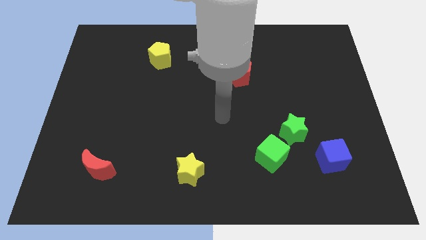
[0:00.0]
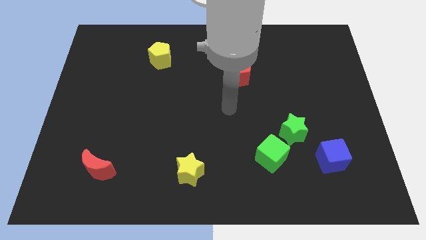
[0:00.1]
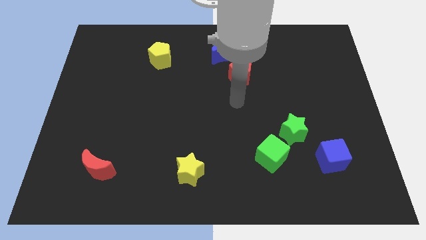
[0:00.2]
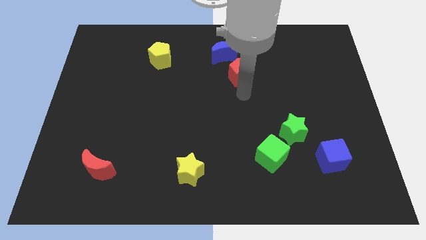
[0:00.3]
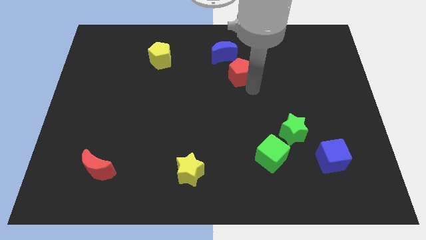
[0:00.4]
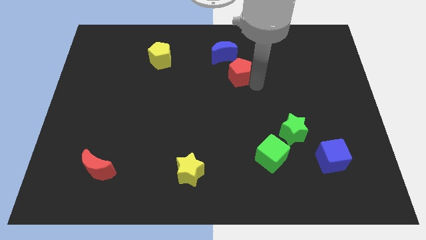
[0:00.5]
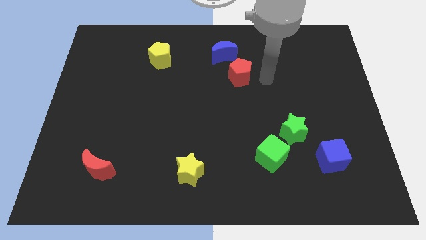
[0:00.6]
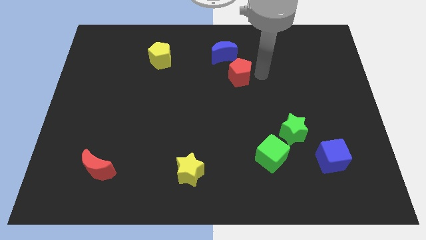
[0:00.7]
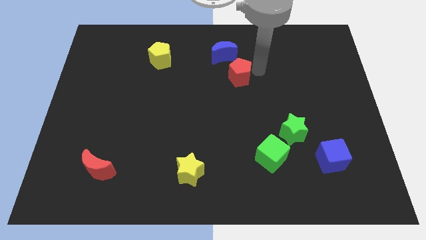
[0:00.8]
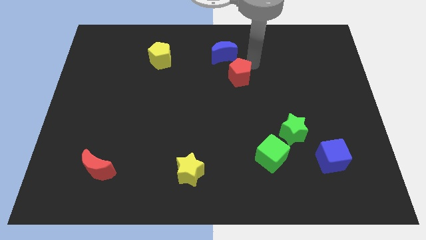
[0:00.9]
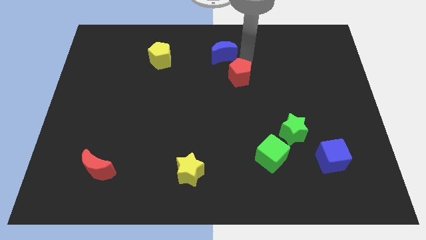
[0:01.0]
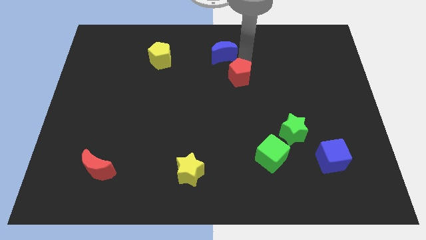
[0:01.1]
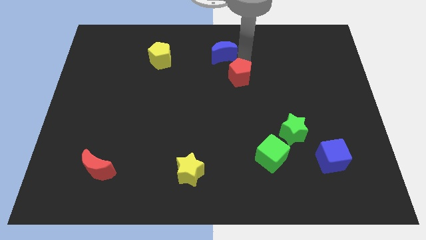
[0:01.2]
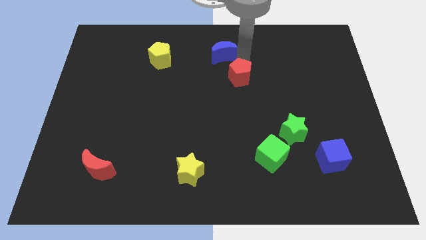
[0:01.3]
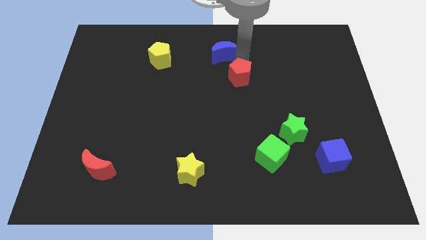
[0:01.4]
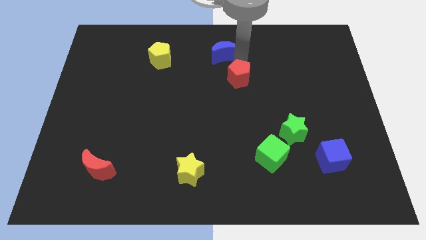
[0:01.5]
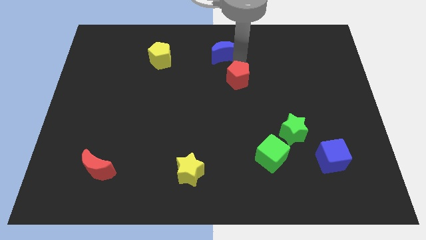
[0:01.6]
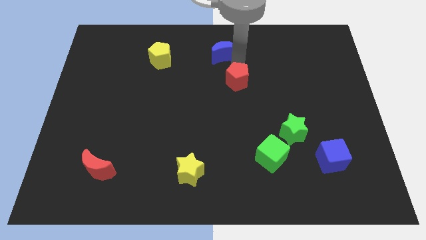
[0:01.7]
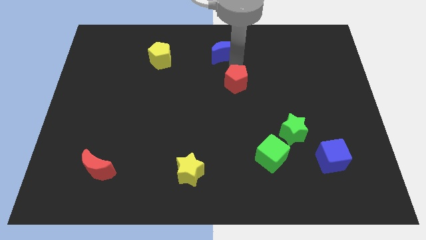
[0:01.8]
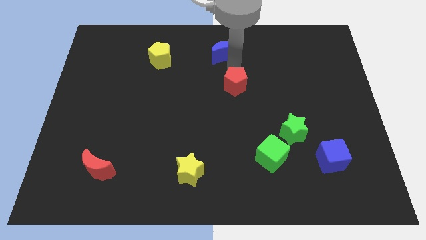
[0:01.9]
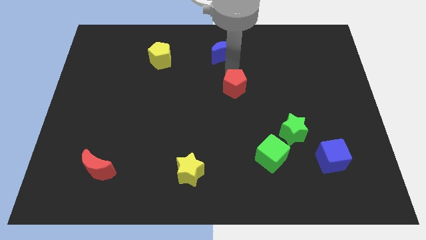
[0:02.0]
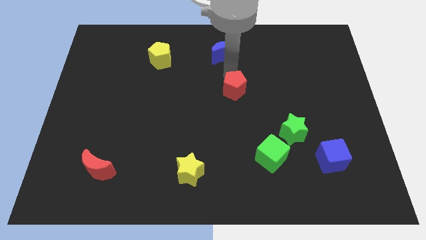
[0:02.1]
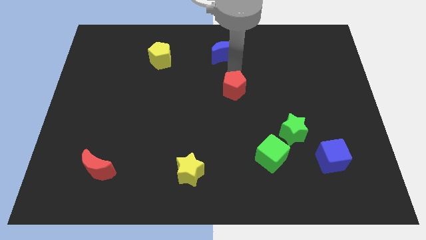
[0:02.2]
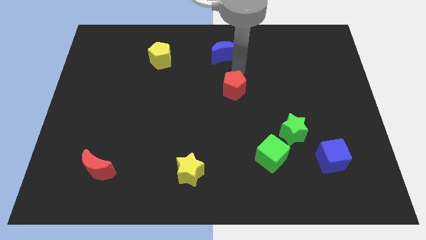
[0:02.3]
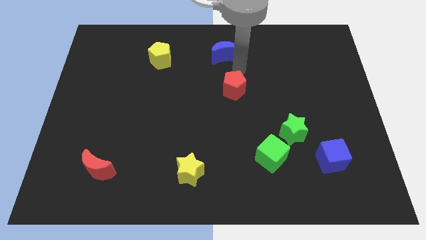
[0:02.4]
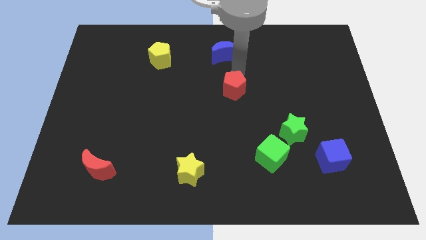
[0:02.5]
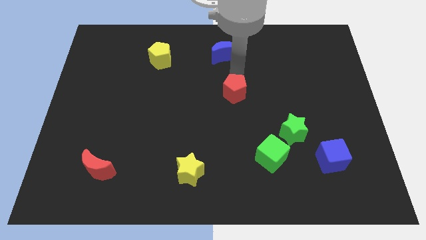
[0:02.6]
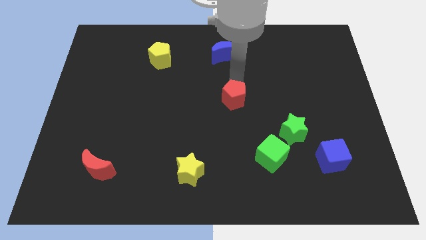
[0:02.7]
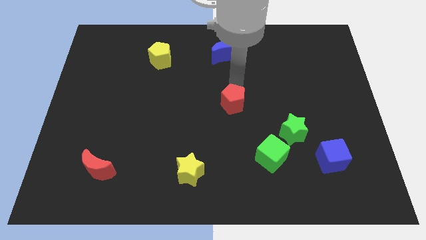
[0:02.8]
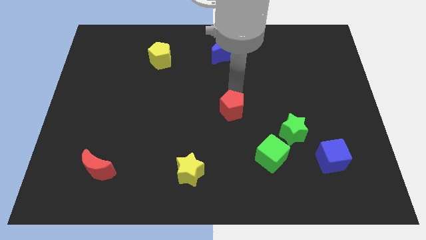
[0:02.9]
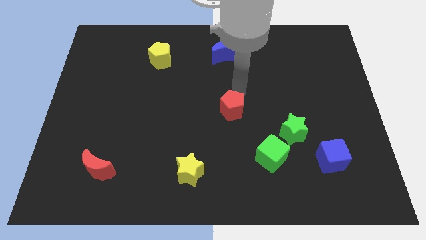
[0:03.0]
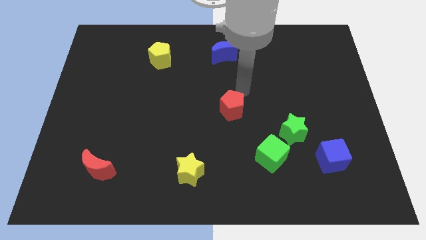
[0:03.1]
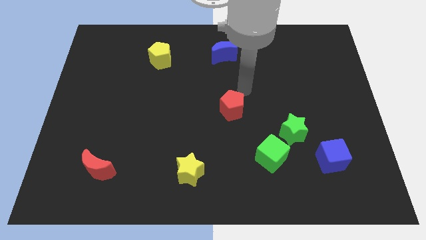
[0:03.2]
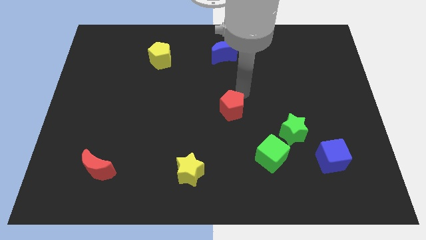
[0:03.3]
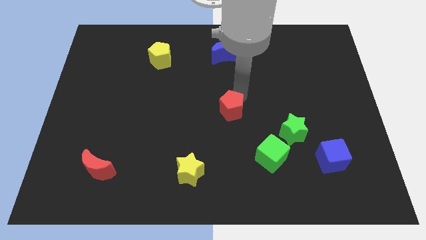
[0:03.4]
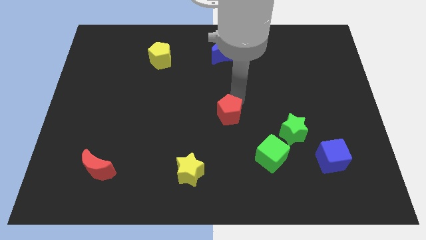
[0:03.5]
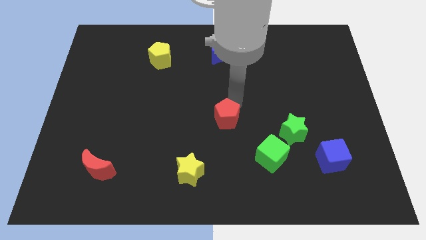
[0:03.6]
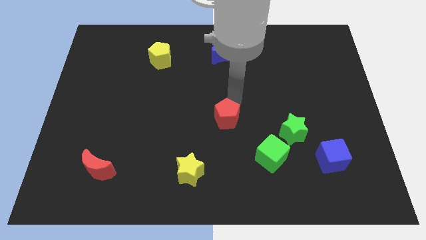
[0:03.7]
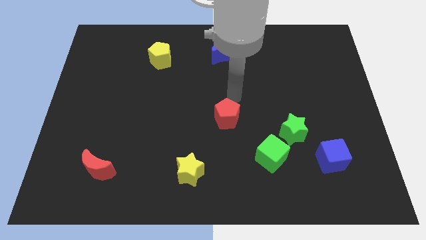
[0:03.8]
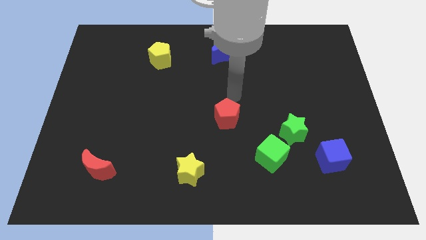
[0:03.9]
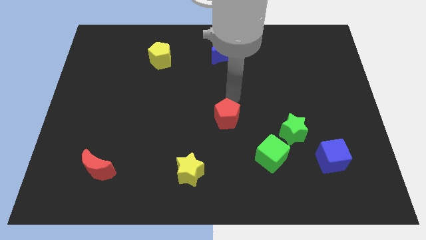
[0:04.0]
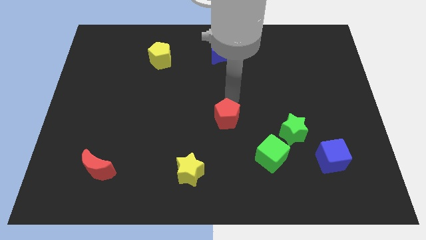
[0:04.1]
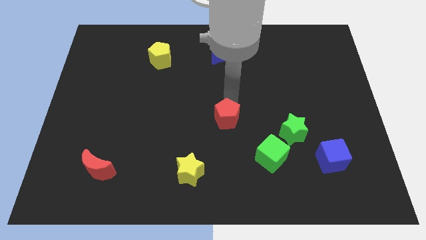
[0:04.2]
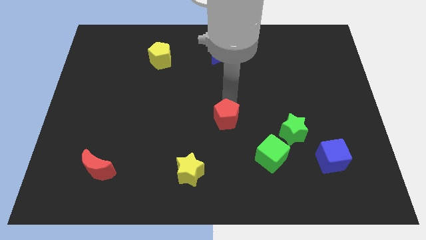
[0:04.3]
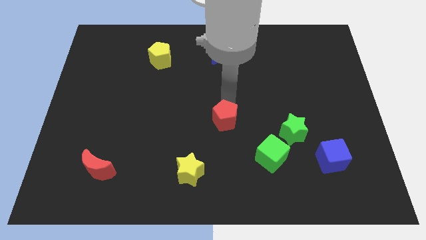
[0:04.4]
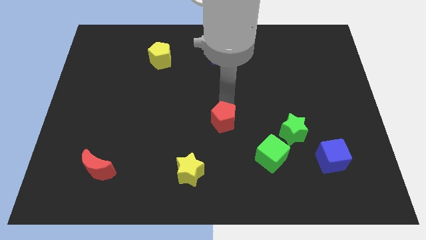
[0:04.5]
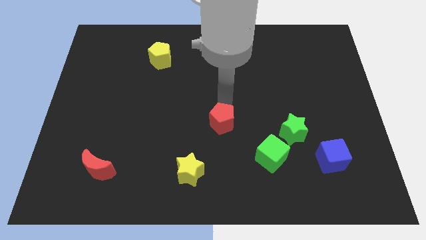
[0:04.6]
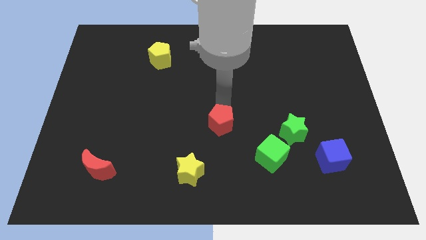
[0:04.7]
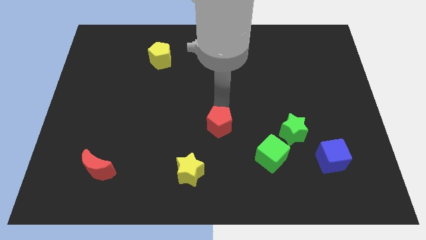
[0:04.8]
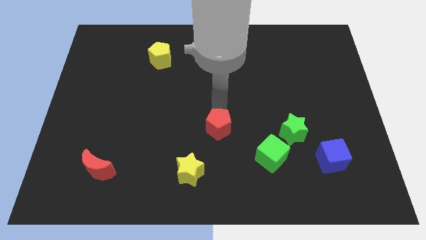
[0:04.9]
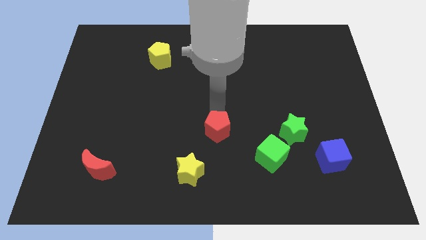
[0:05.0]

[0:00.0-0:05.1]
move the red pentagon diagonally up and to the right of the yellow star

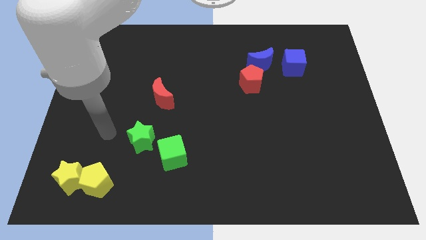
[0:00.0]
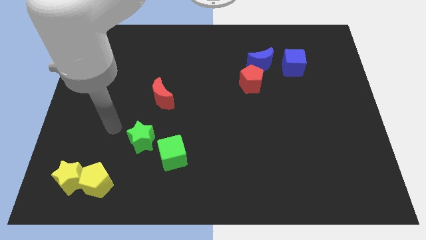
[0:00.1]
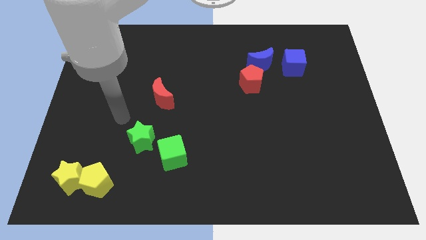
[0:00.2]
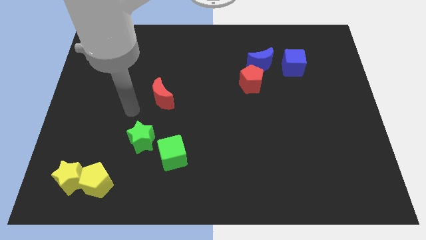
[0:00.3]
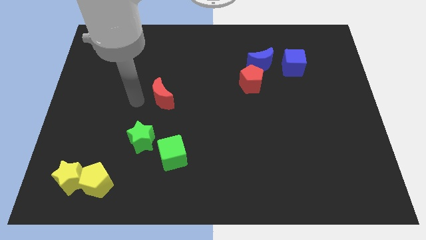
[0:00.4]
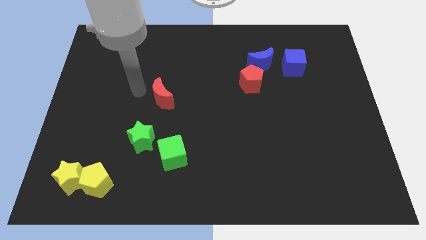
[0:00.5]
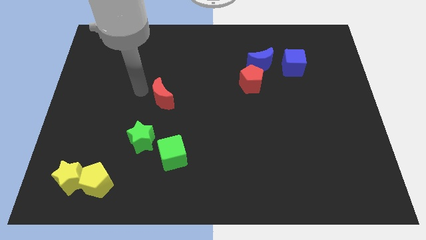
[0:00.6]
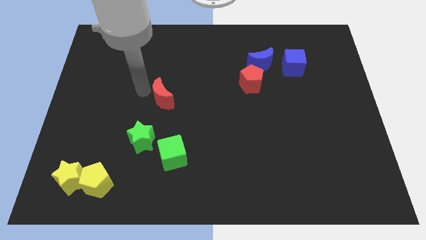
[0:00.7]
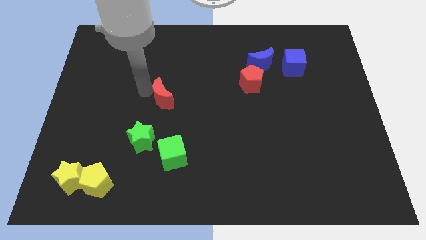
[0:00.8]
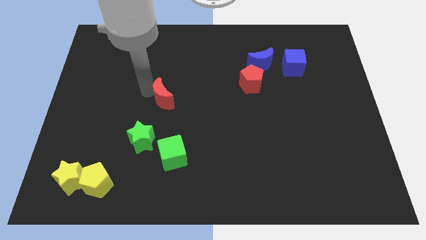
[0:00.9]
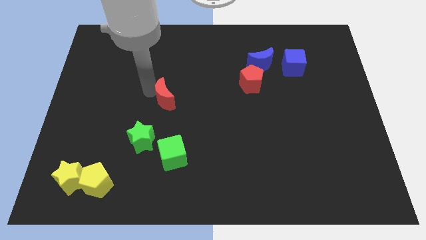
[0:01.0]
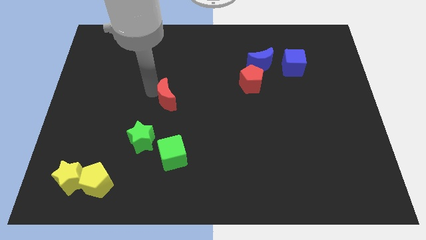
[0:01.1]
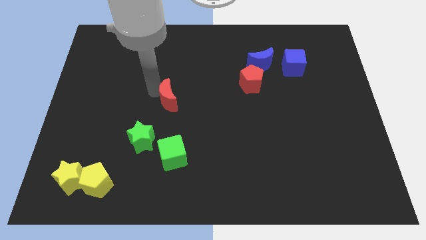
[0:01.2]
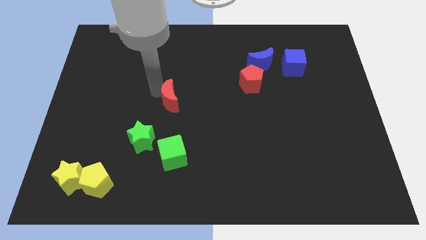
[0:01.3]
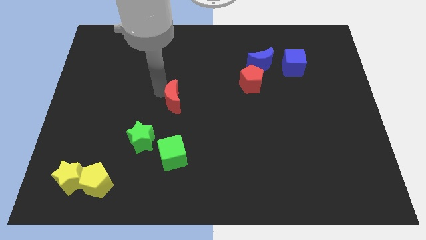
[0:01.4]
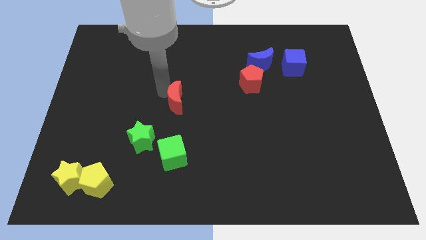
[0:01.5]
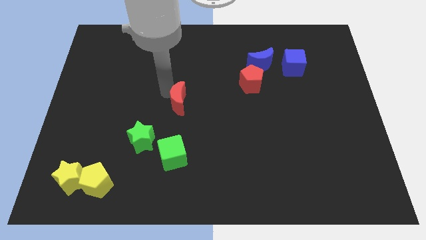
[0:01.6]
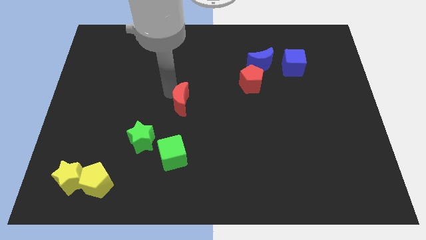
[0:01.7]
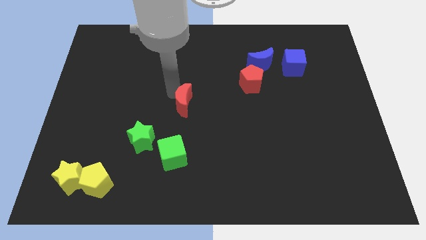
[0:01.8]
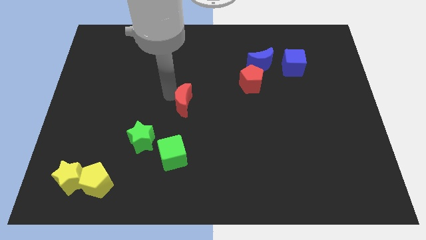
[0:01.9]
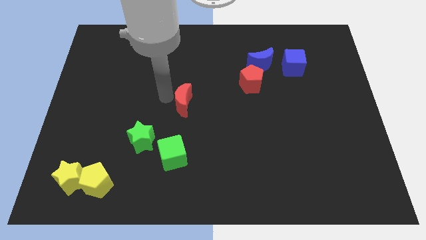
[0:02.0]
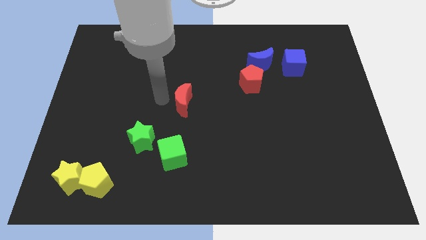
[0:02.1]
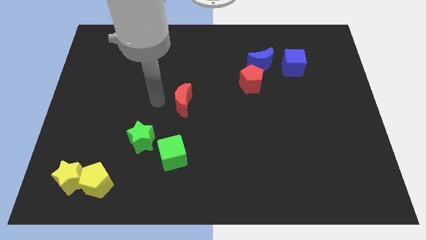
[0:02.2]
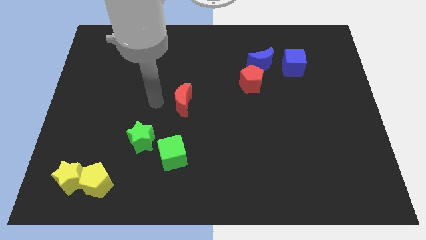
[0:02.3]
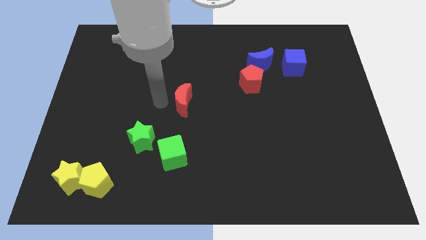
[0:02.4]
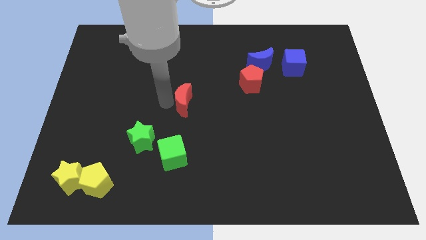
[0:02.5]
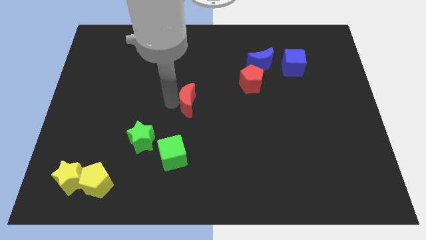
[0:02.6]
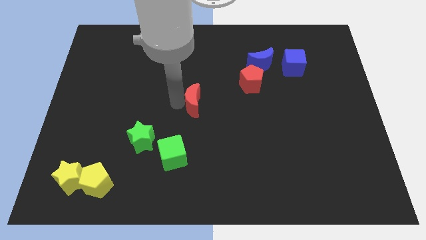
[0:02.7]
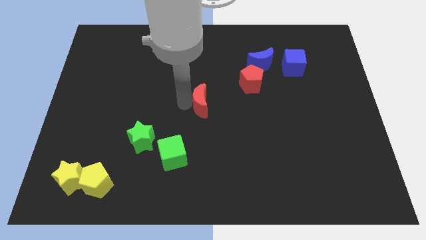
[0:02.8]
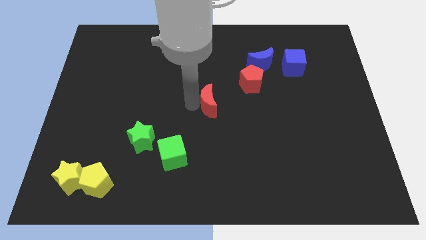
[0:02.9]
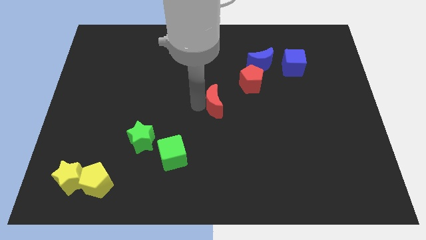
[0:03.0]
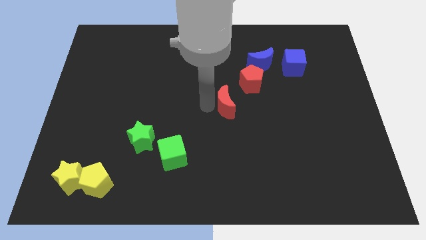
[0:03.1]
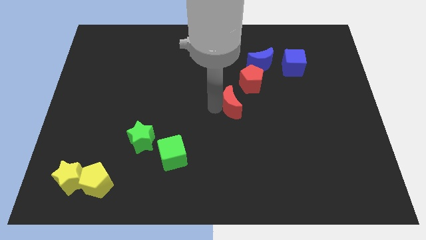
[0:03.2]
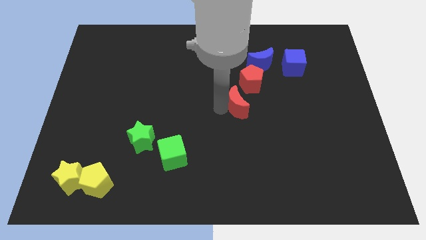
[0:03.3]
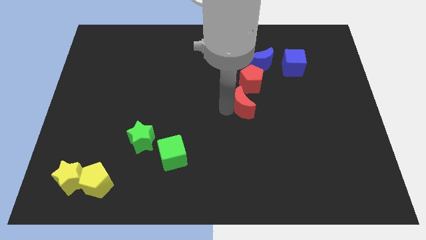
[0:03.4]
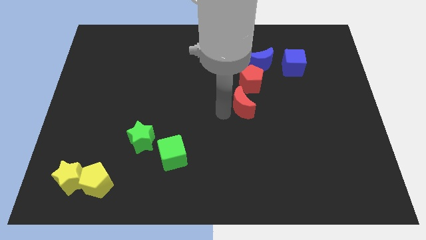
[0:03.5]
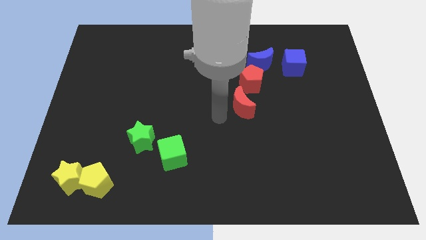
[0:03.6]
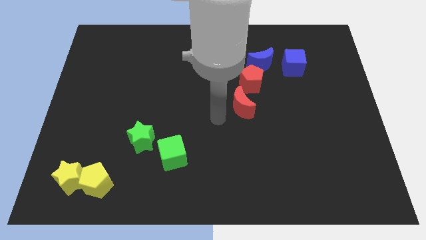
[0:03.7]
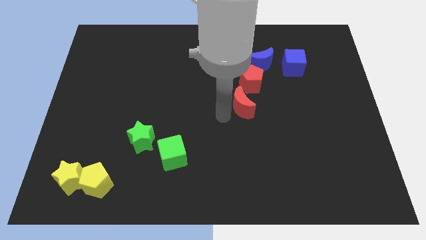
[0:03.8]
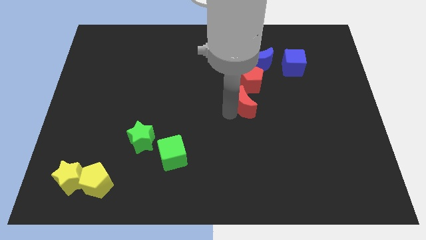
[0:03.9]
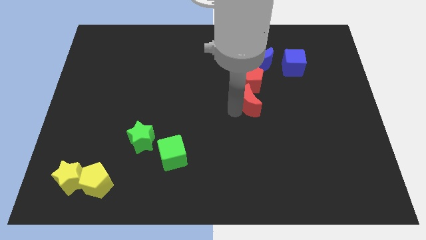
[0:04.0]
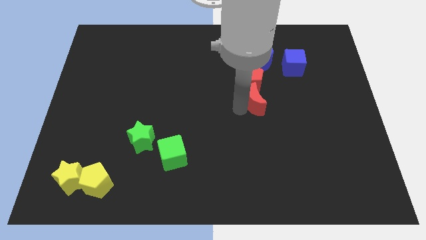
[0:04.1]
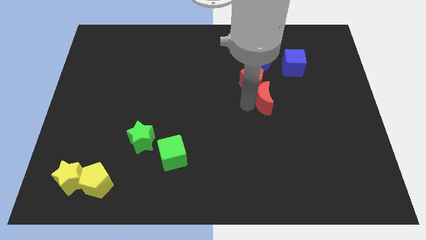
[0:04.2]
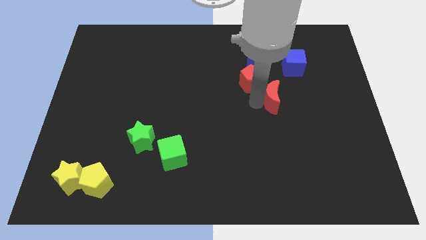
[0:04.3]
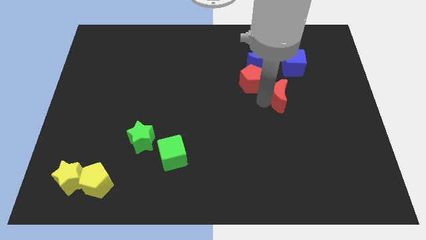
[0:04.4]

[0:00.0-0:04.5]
put the red moon to the bottom of the blue cube
